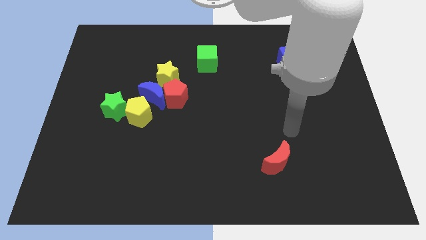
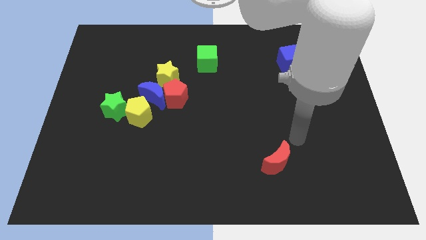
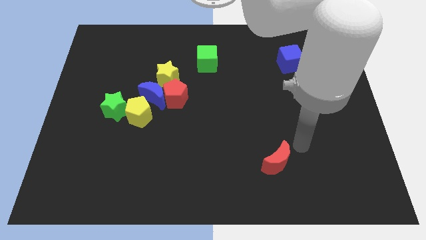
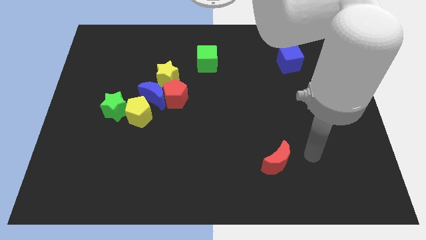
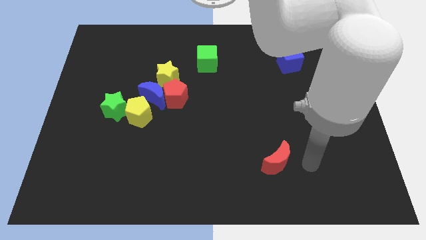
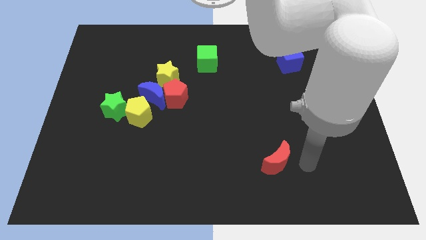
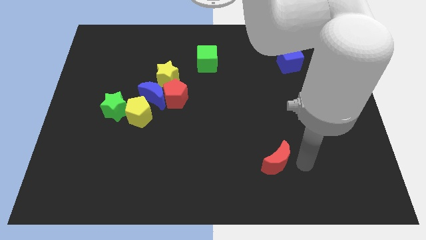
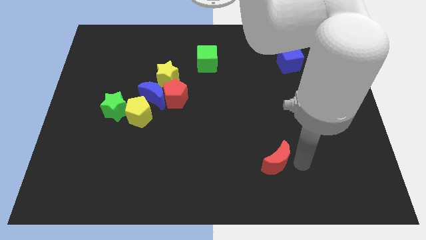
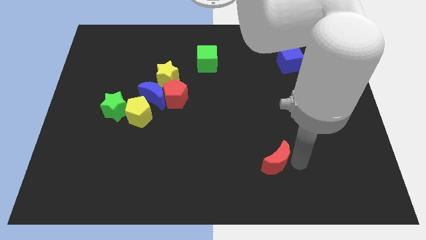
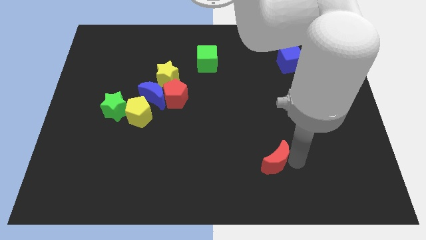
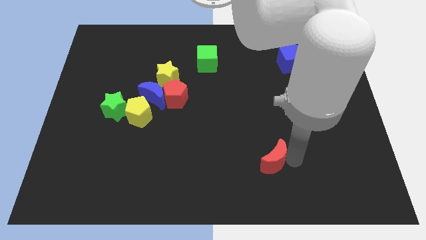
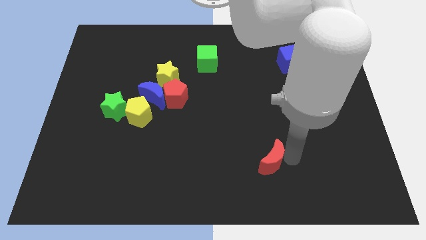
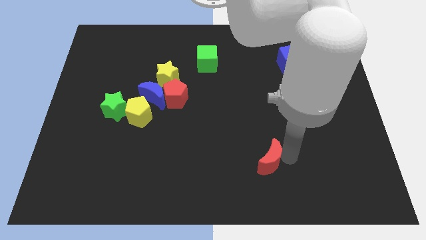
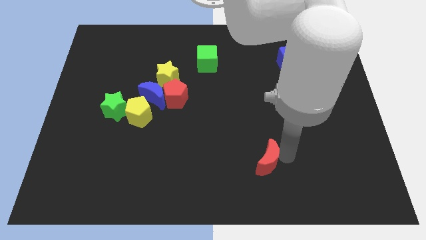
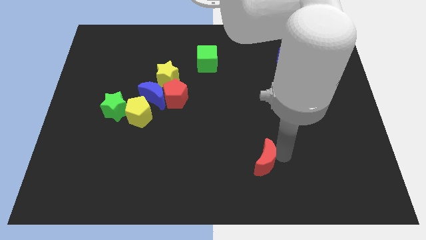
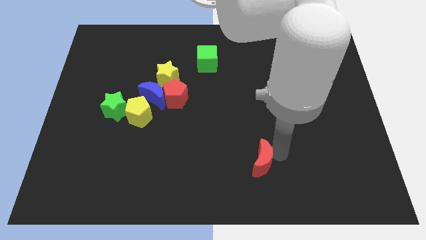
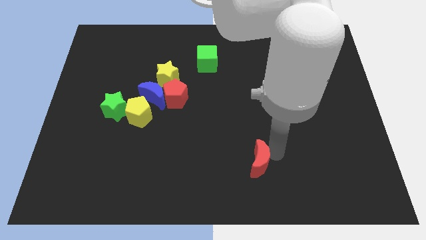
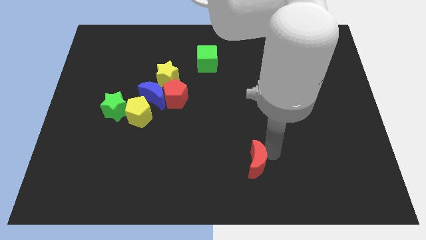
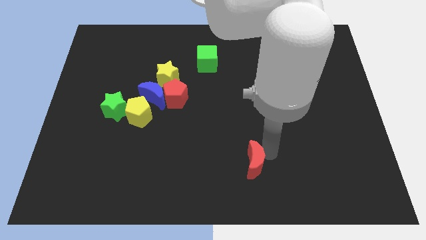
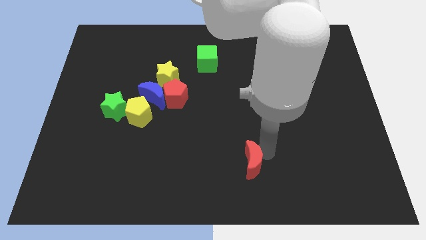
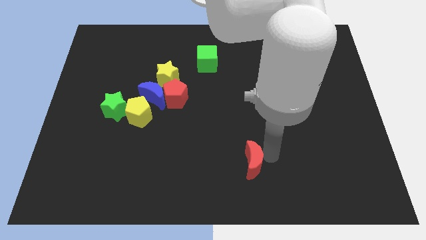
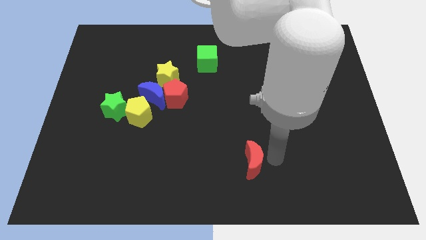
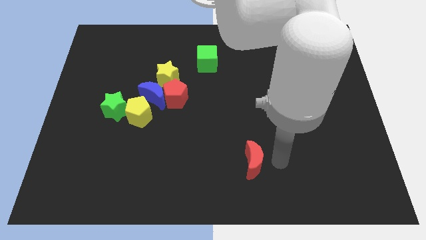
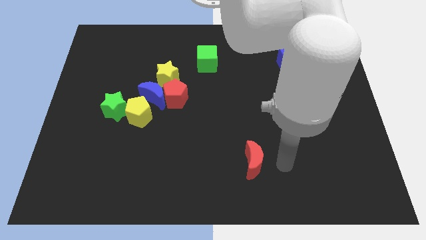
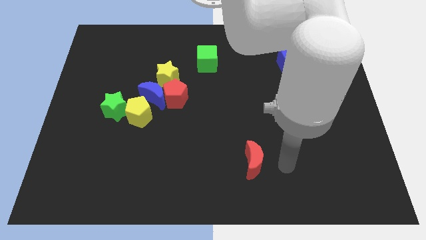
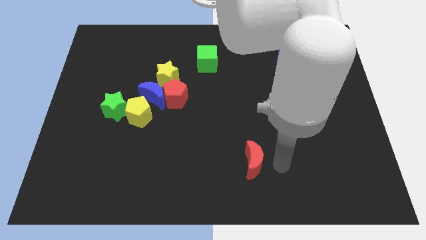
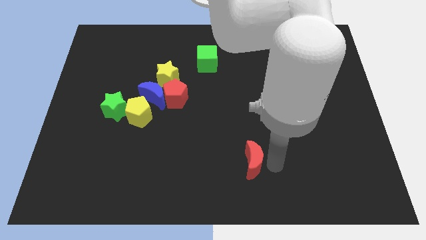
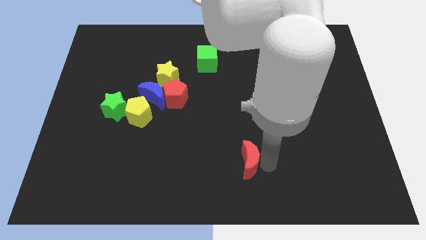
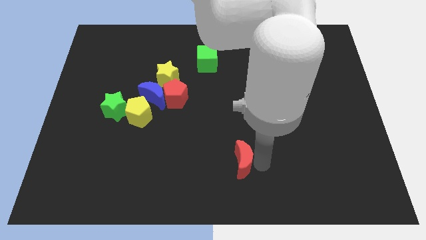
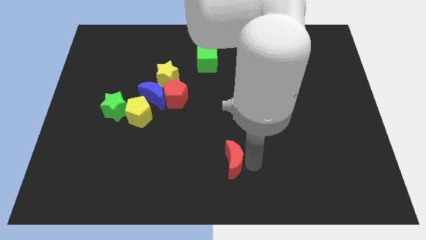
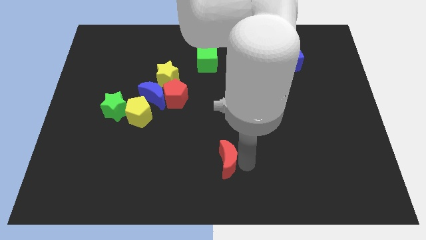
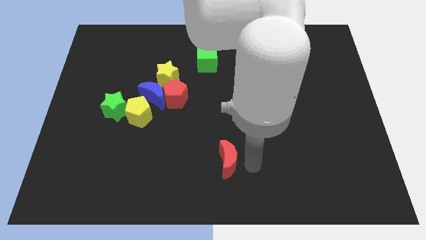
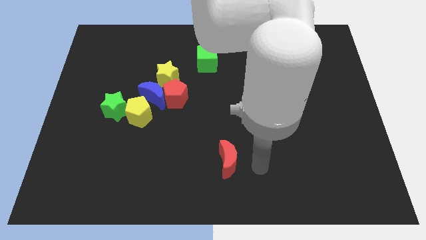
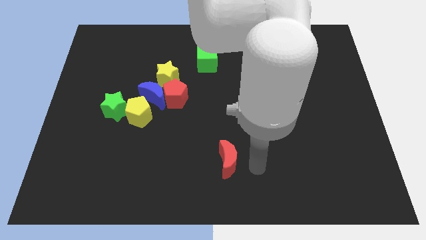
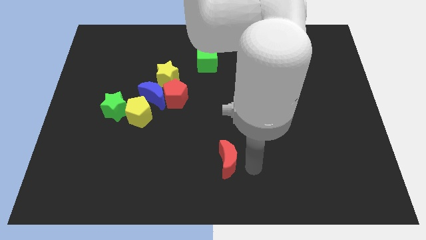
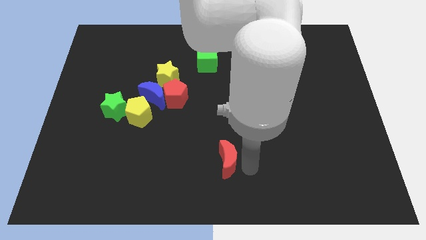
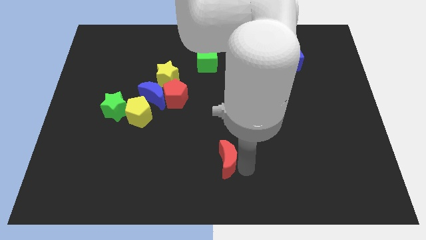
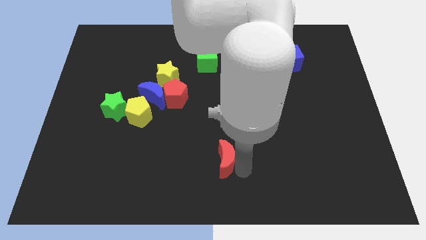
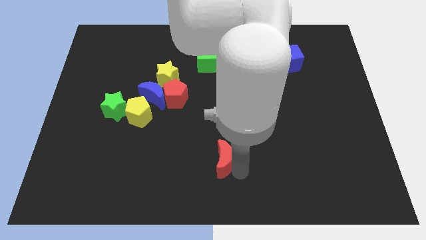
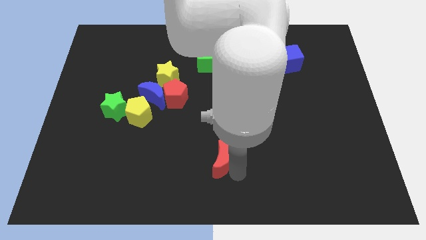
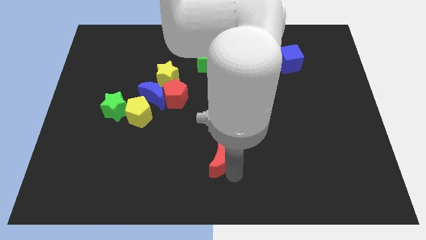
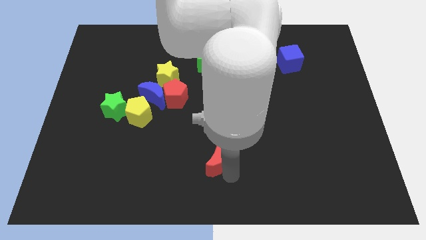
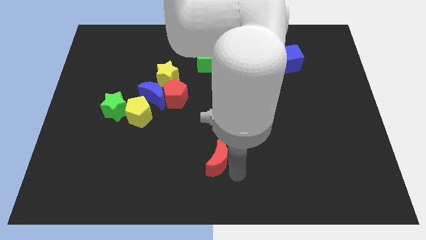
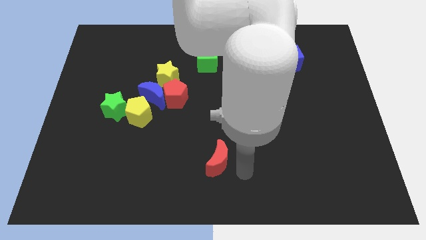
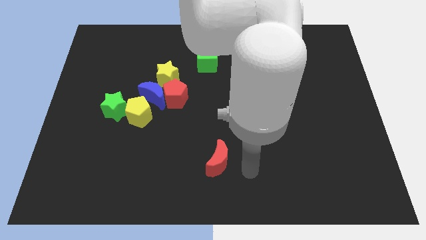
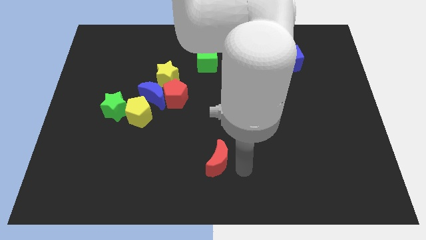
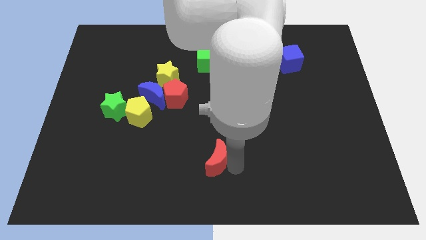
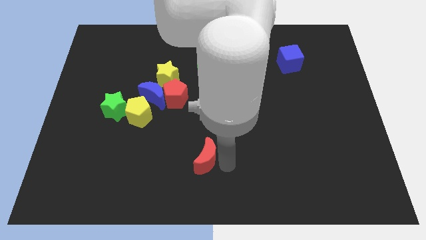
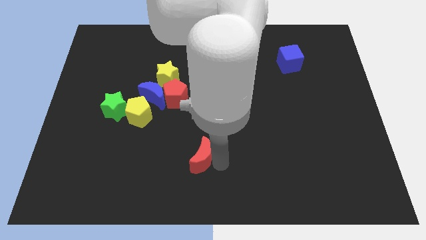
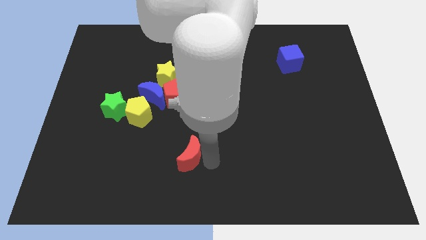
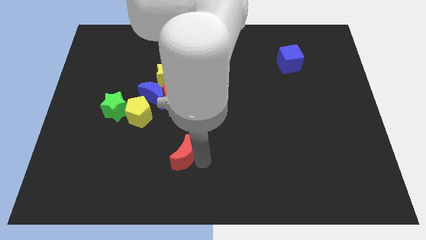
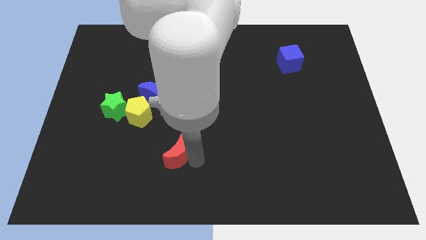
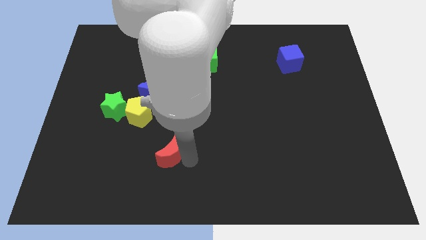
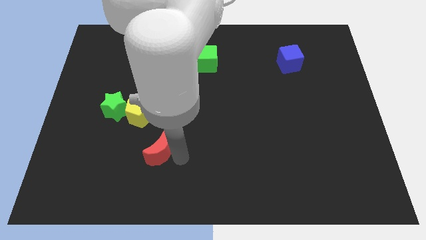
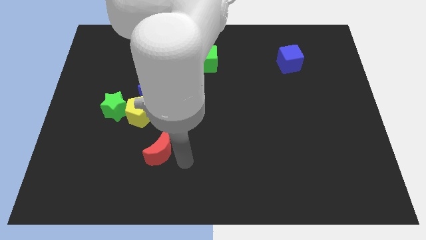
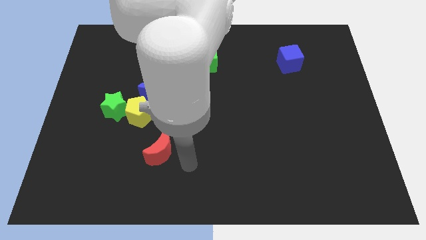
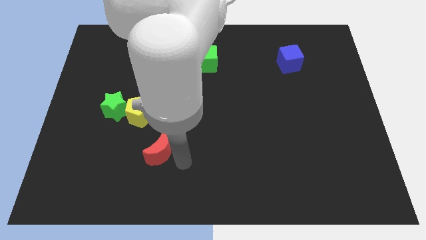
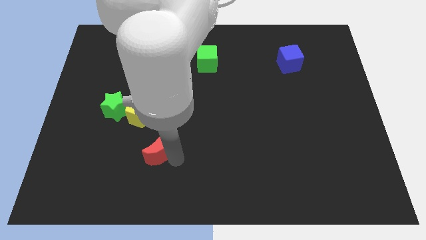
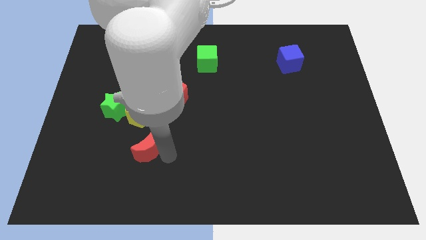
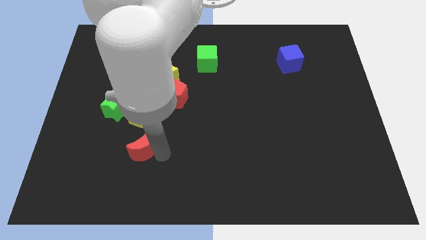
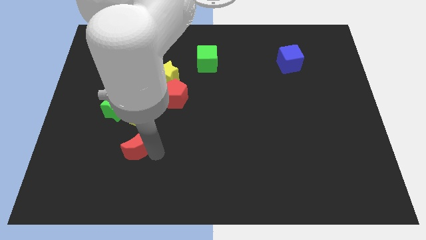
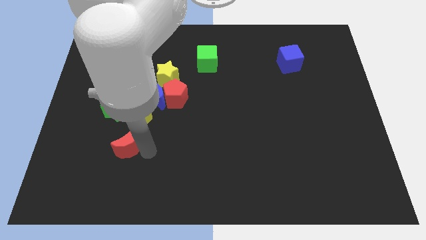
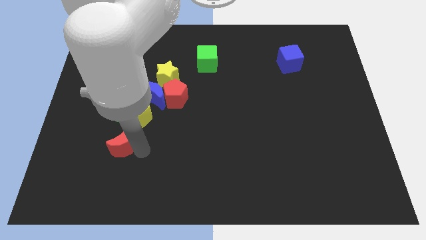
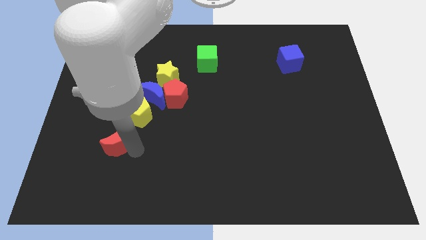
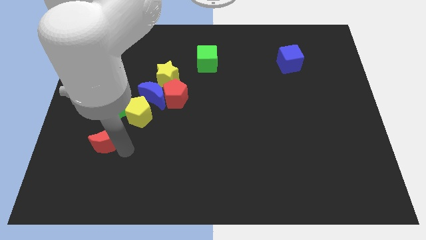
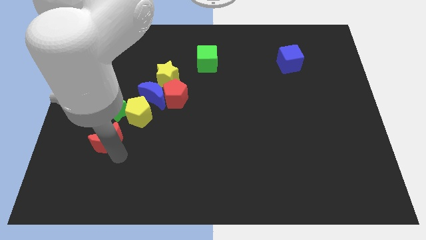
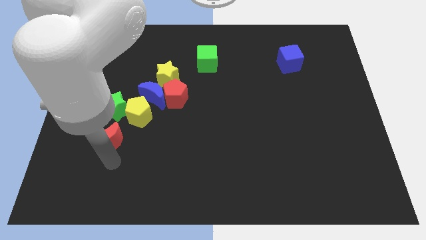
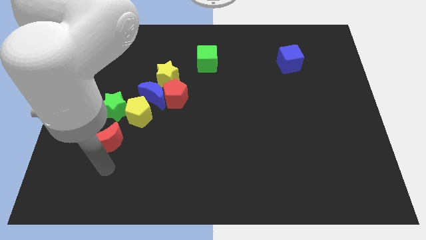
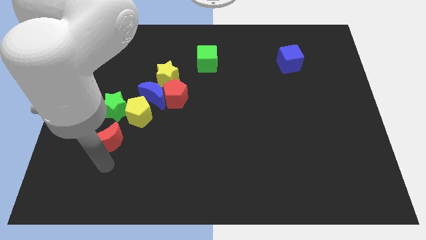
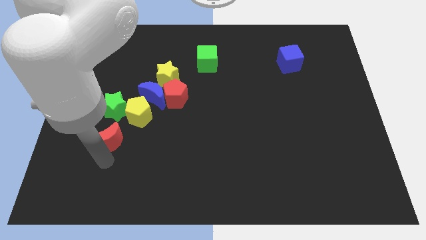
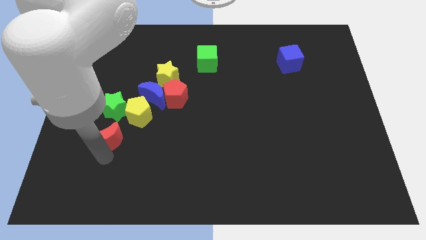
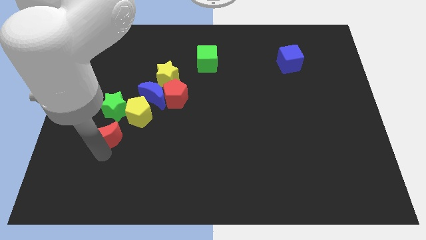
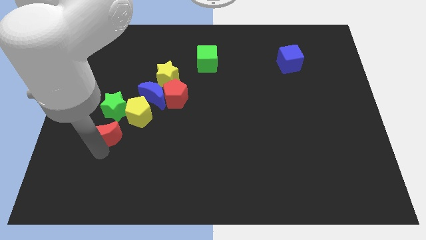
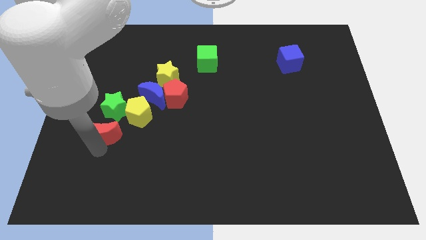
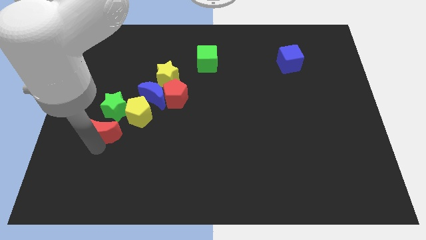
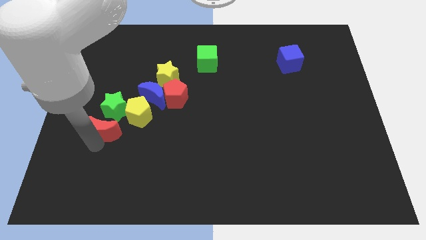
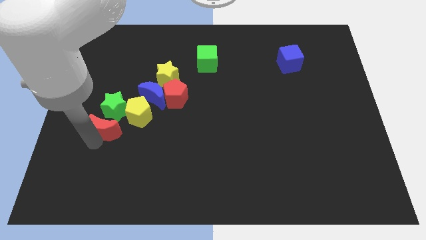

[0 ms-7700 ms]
push the red moon to the green star
